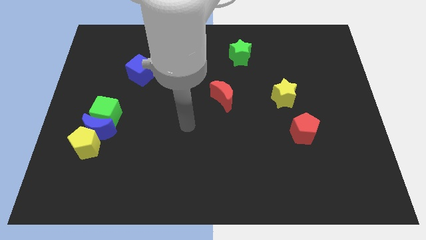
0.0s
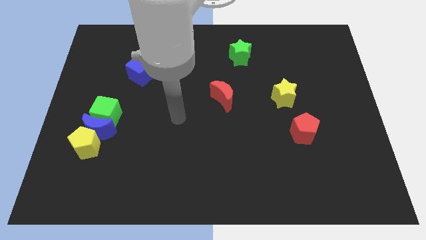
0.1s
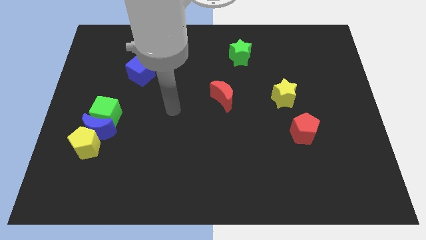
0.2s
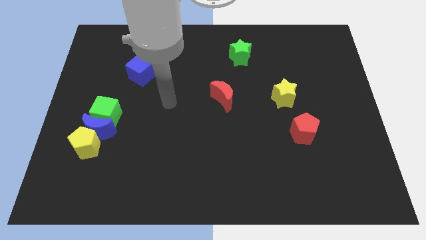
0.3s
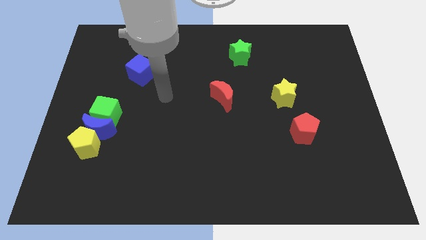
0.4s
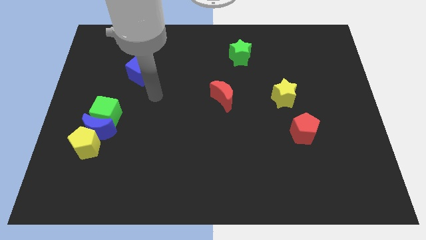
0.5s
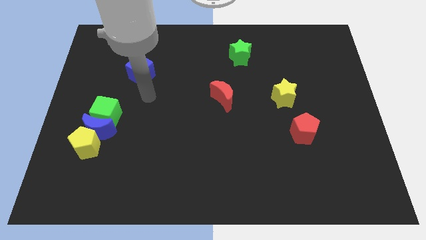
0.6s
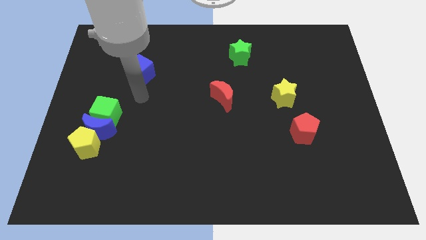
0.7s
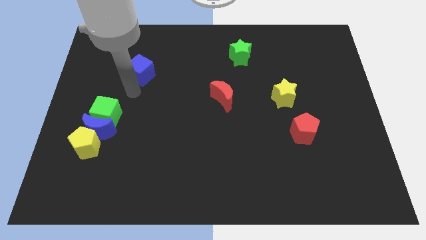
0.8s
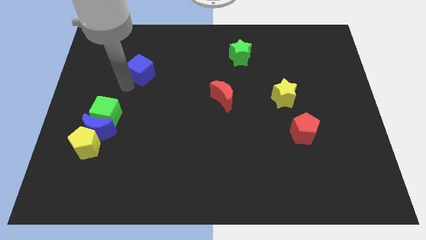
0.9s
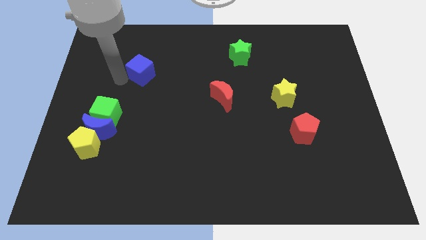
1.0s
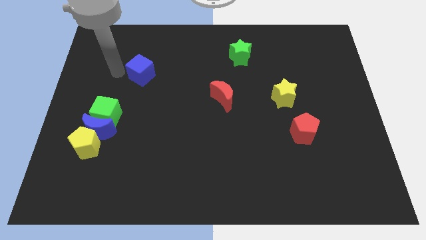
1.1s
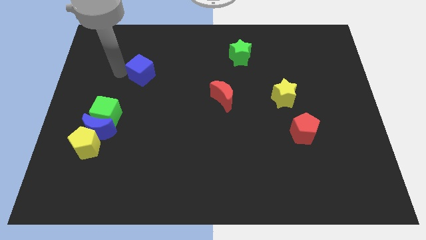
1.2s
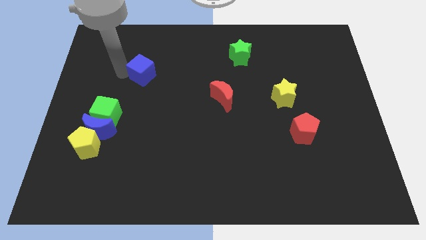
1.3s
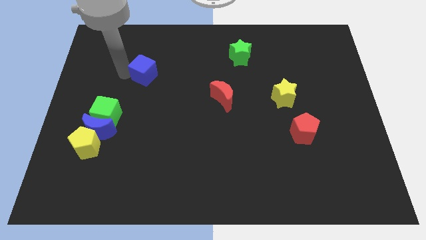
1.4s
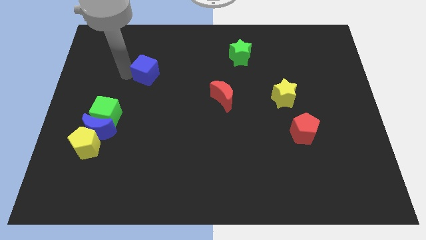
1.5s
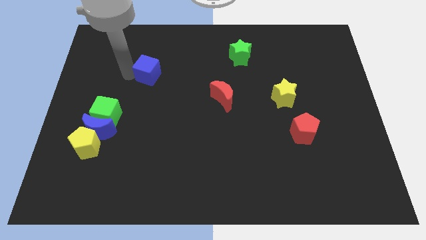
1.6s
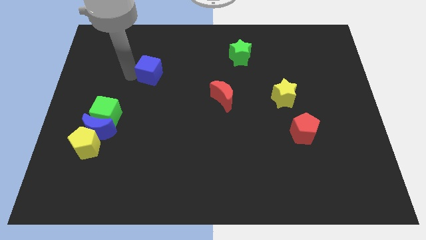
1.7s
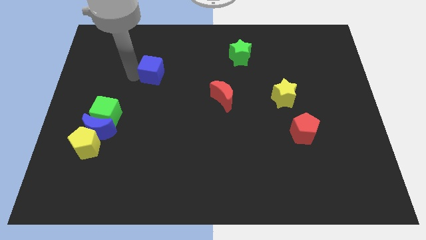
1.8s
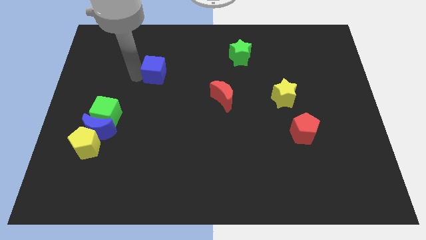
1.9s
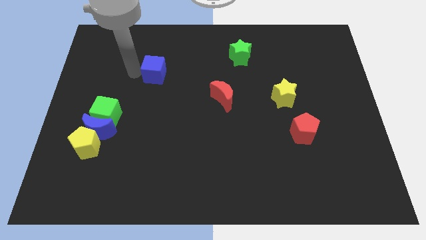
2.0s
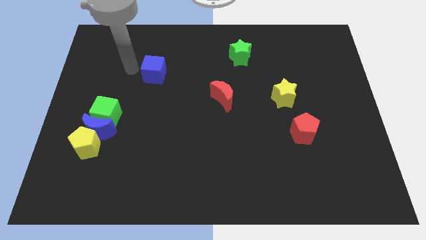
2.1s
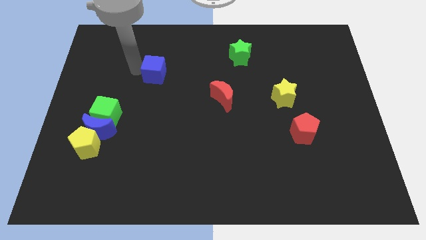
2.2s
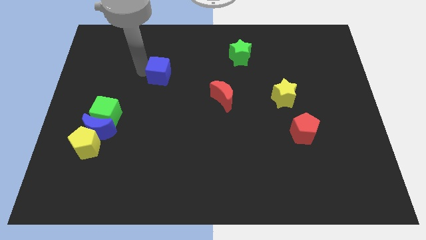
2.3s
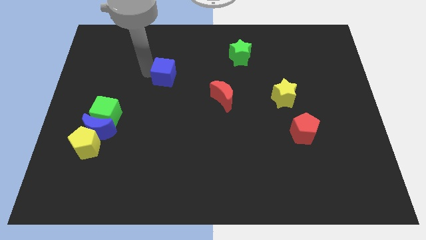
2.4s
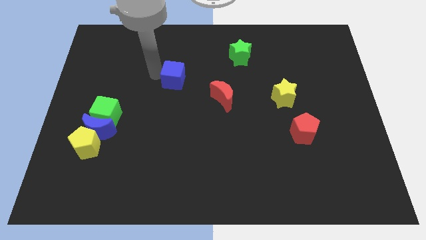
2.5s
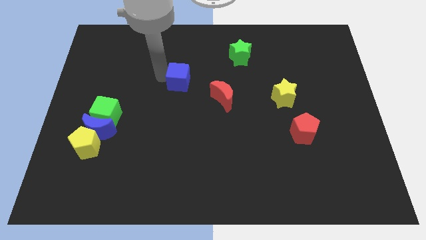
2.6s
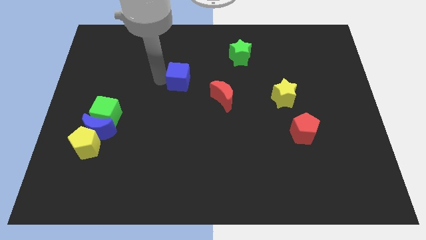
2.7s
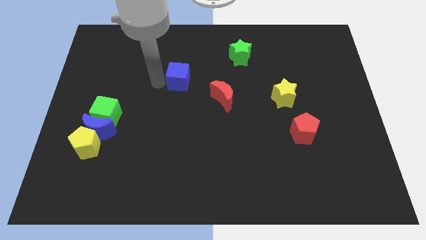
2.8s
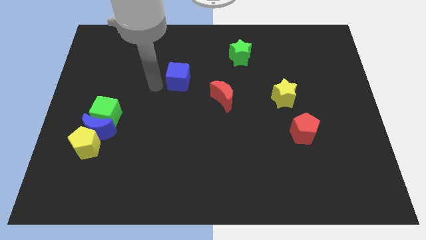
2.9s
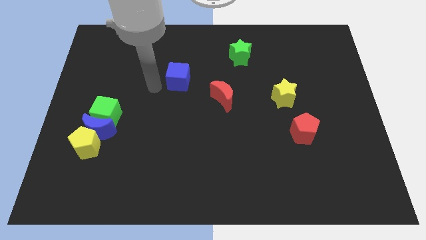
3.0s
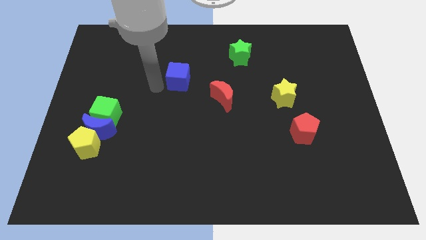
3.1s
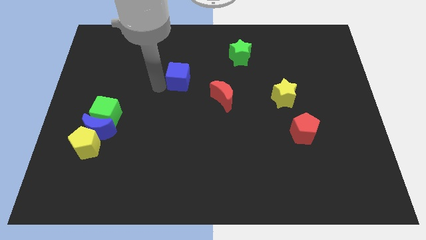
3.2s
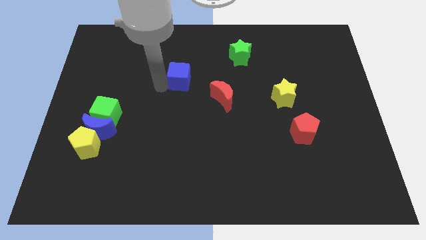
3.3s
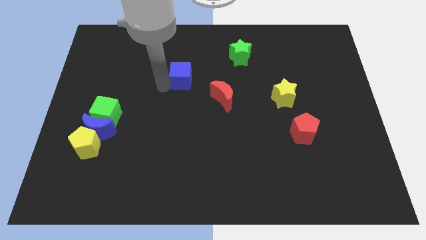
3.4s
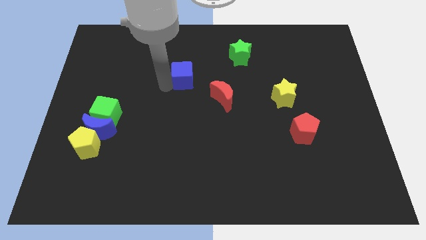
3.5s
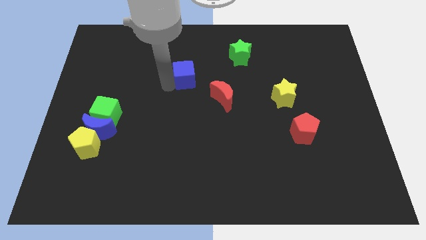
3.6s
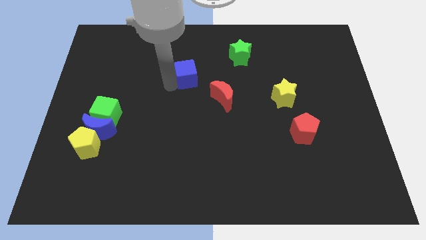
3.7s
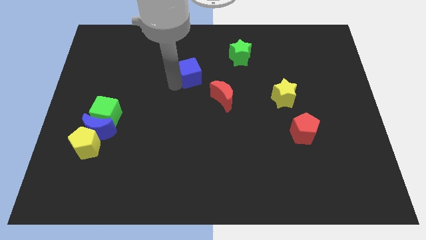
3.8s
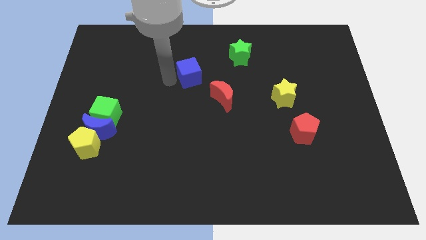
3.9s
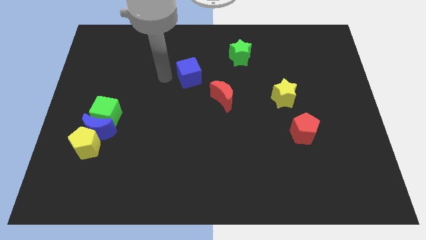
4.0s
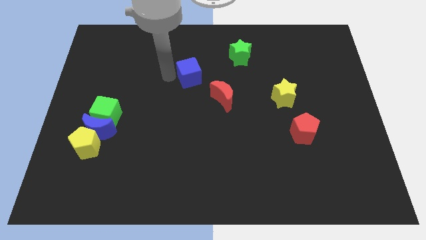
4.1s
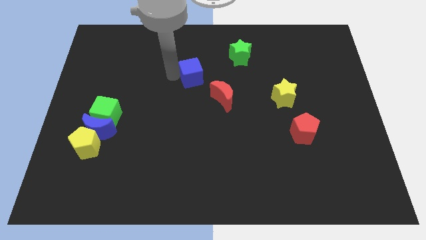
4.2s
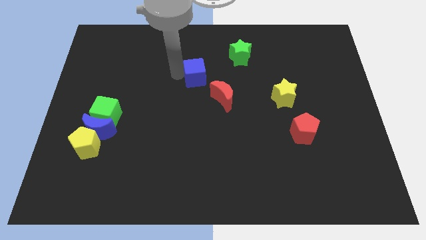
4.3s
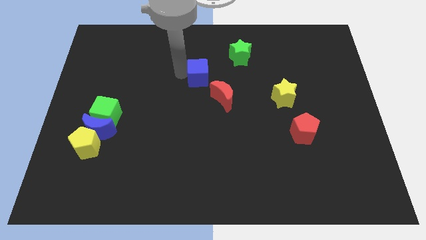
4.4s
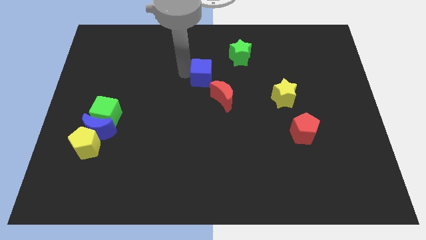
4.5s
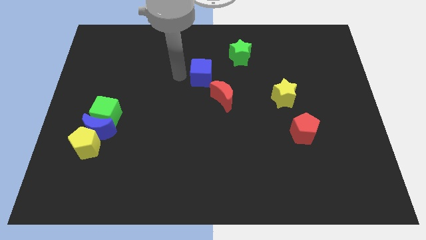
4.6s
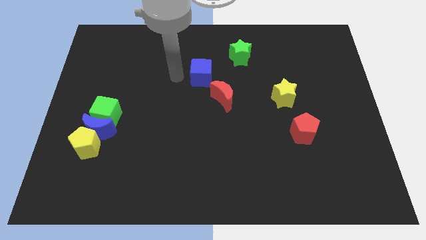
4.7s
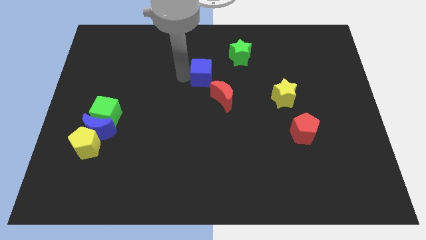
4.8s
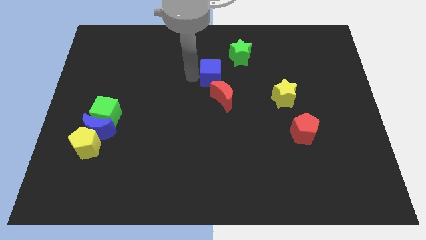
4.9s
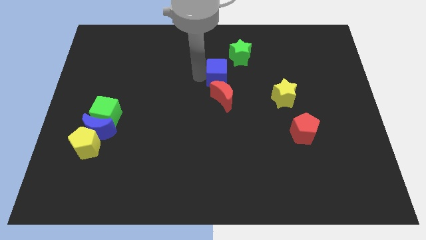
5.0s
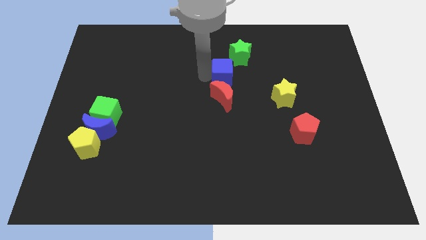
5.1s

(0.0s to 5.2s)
push the blue cube right

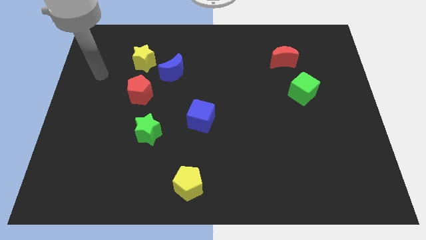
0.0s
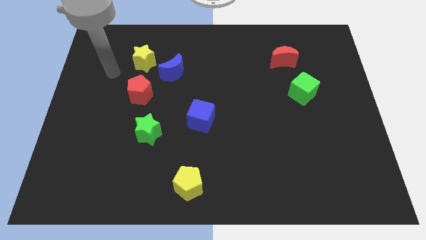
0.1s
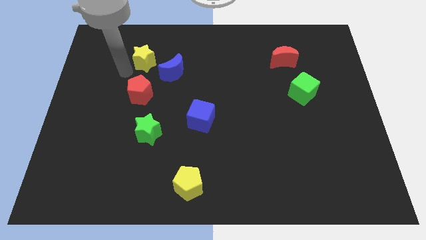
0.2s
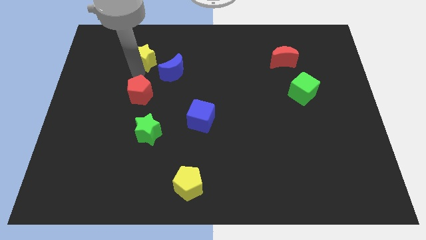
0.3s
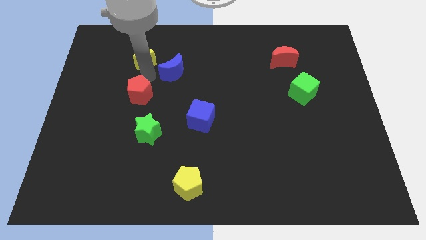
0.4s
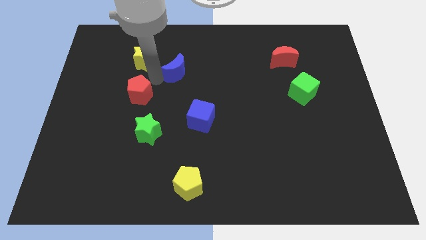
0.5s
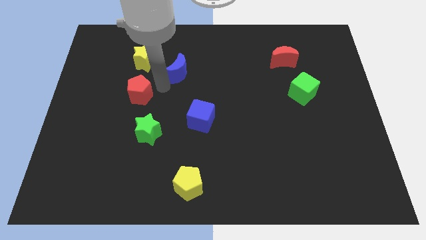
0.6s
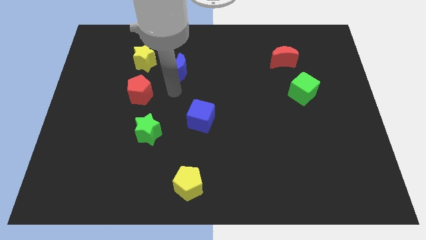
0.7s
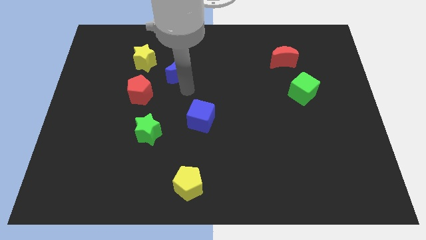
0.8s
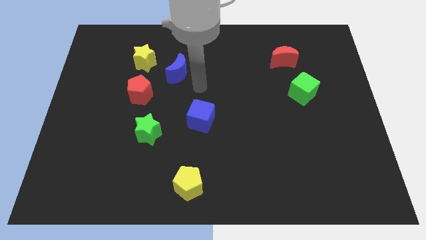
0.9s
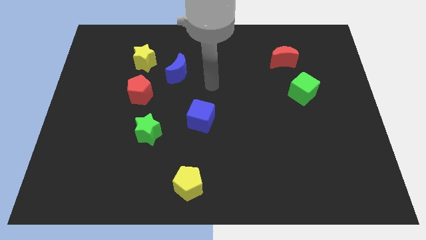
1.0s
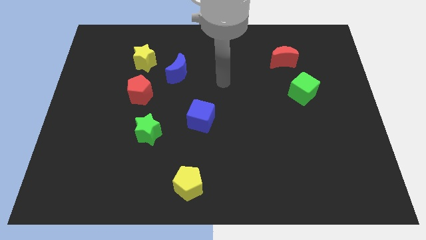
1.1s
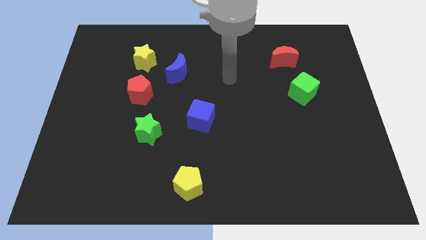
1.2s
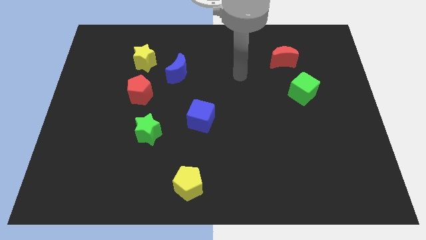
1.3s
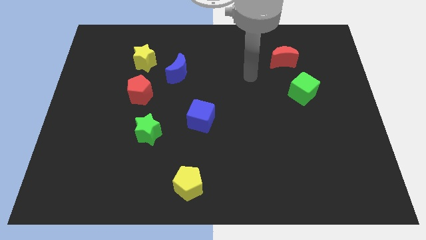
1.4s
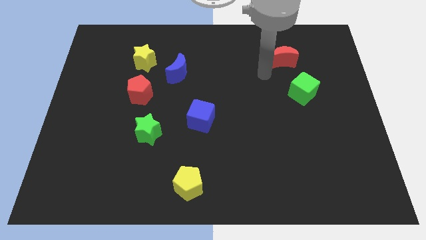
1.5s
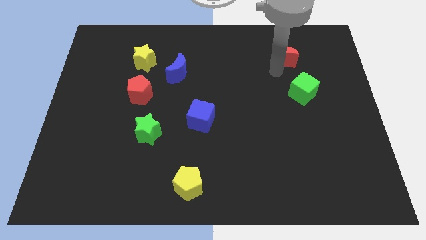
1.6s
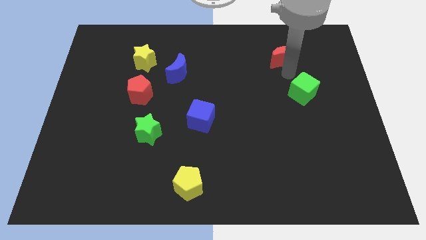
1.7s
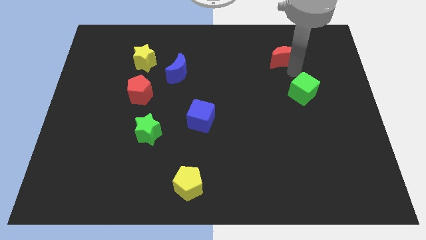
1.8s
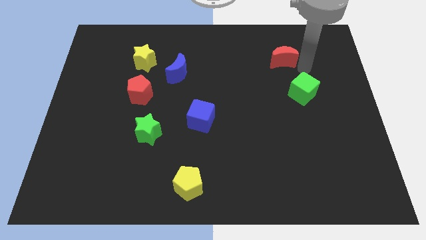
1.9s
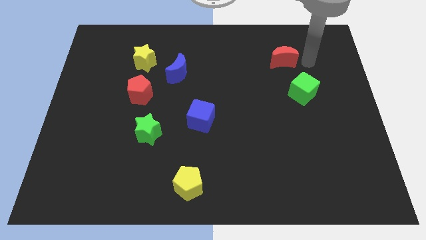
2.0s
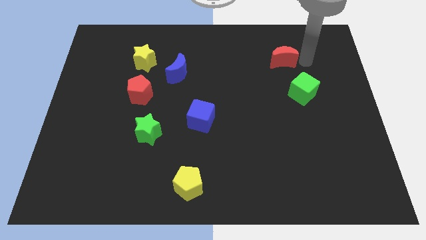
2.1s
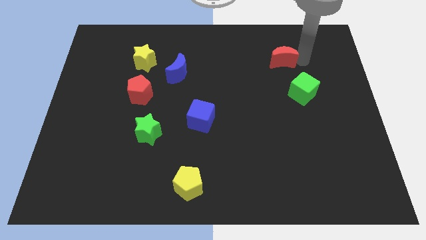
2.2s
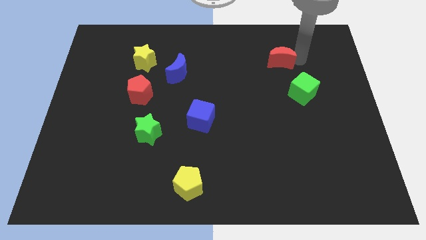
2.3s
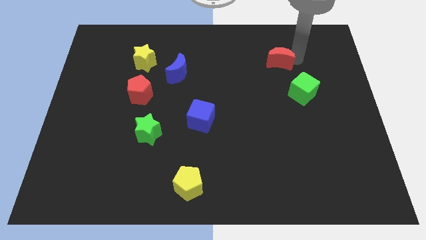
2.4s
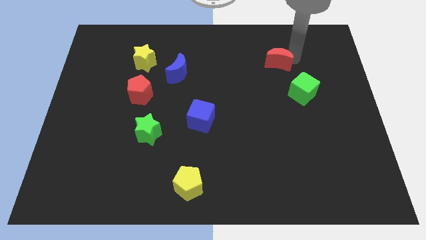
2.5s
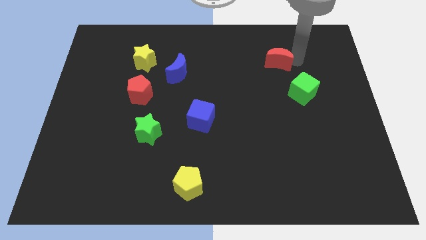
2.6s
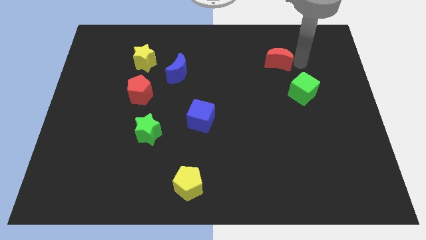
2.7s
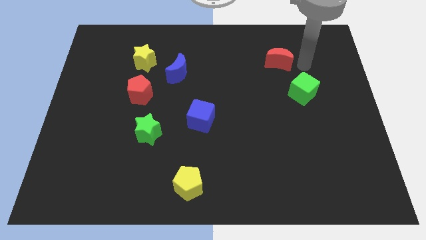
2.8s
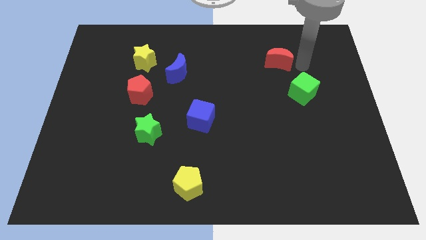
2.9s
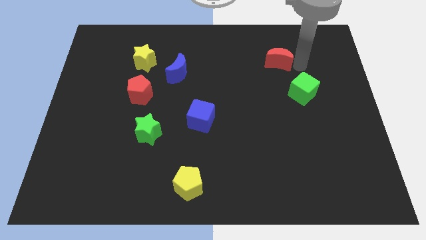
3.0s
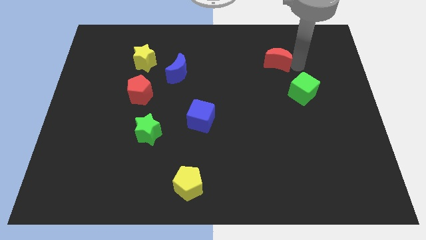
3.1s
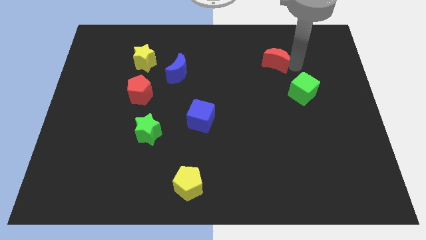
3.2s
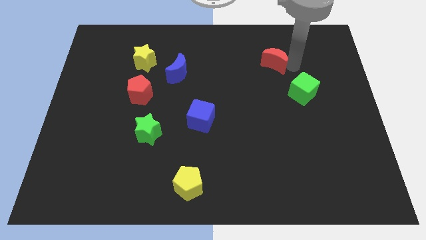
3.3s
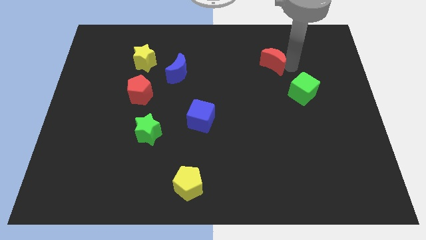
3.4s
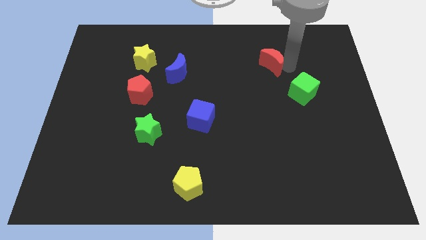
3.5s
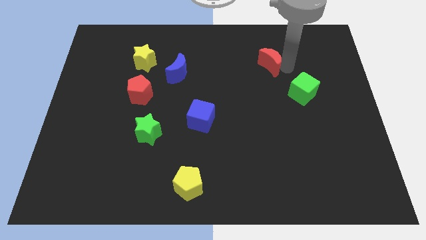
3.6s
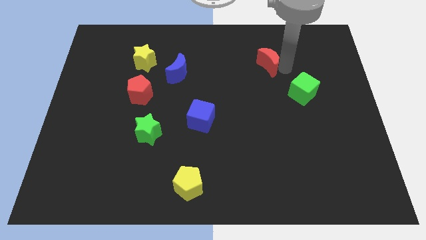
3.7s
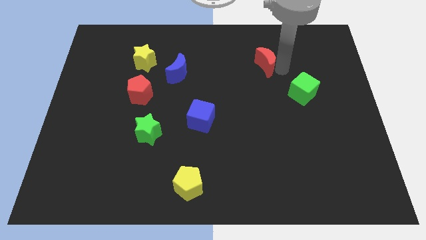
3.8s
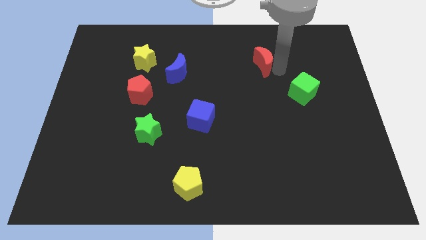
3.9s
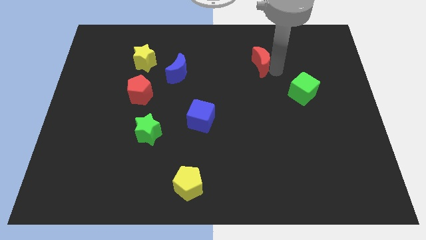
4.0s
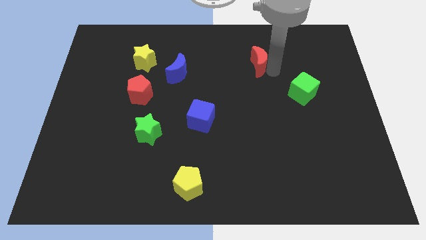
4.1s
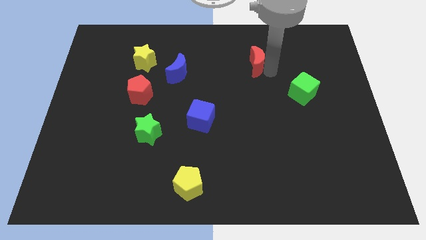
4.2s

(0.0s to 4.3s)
slightly slide the red moon left
